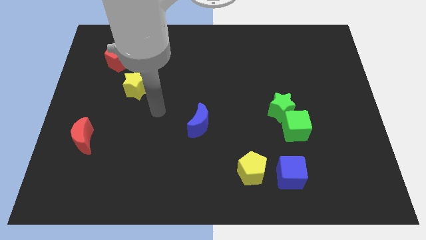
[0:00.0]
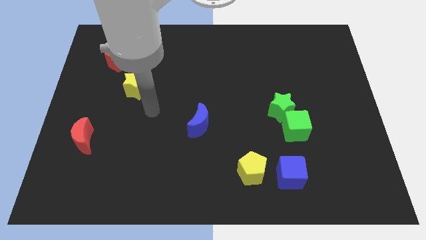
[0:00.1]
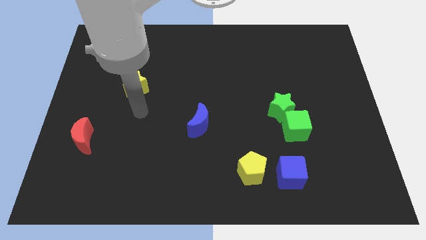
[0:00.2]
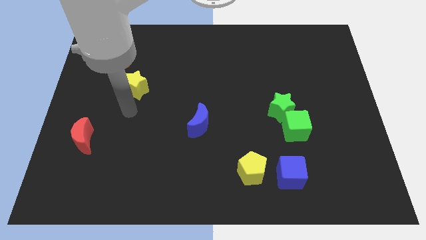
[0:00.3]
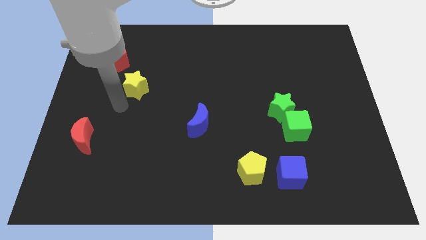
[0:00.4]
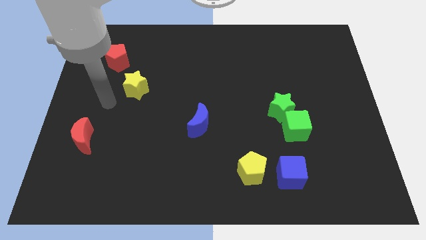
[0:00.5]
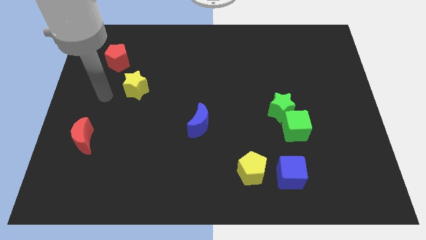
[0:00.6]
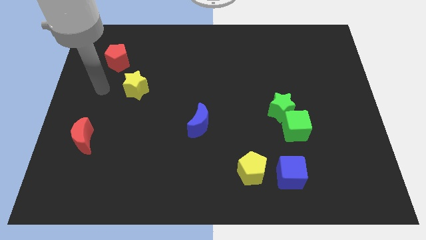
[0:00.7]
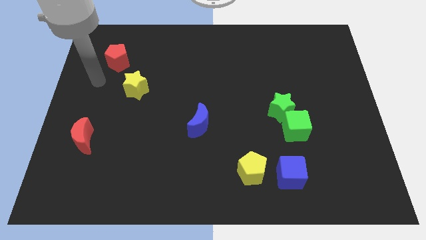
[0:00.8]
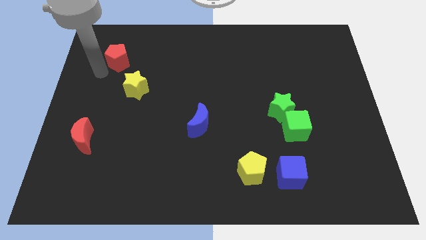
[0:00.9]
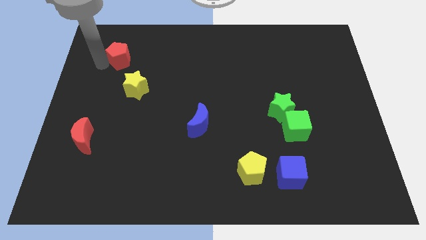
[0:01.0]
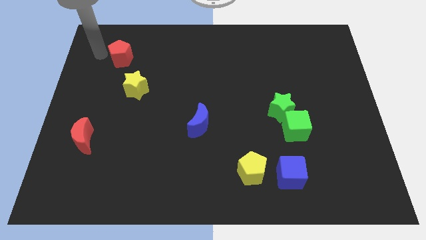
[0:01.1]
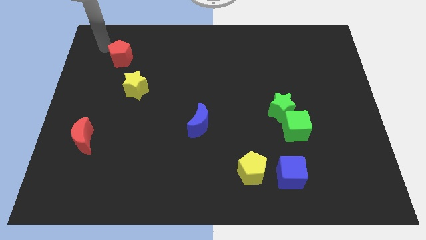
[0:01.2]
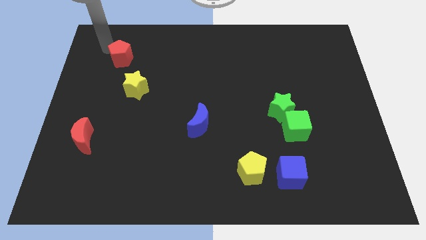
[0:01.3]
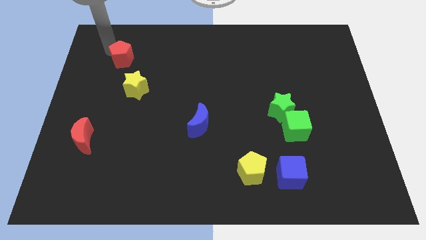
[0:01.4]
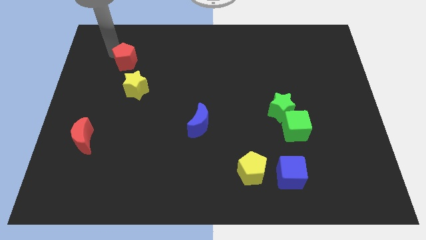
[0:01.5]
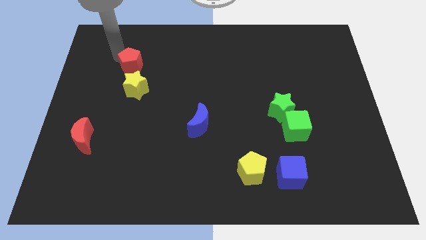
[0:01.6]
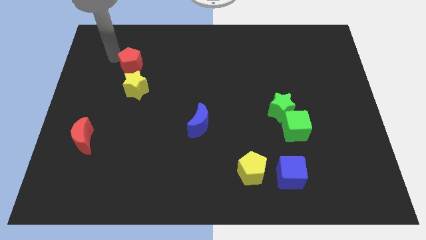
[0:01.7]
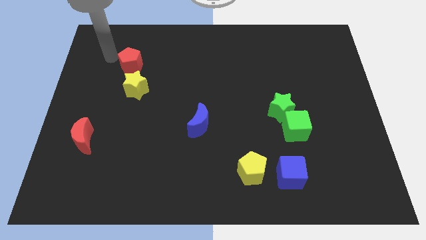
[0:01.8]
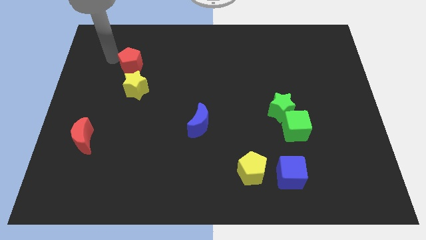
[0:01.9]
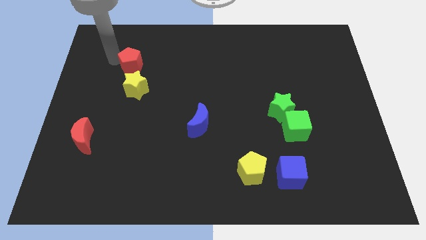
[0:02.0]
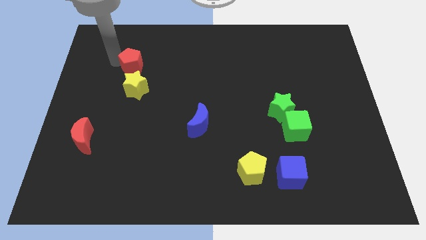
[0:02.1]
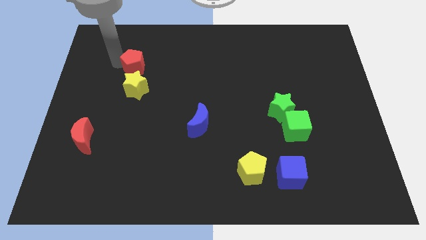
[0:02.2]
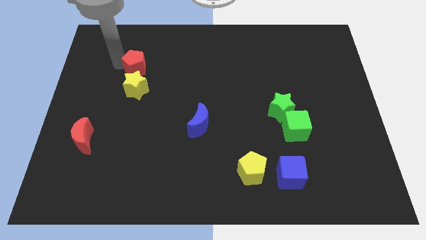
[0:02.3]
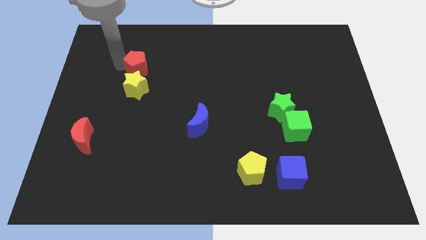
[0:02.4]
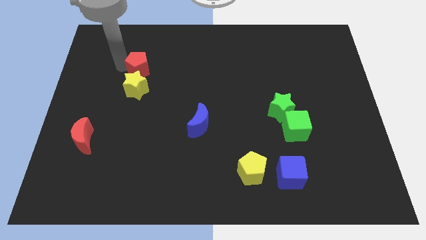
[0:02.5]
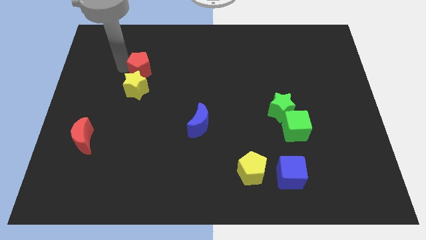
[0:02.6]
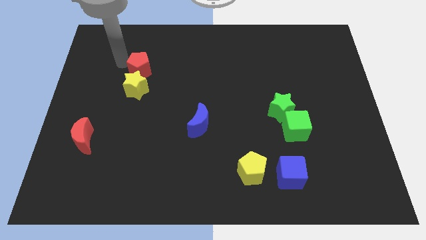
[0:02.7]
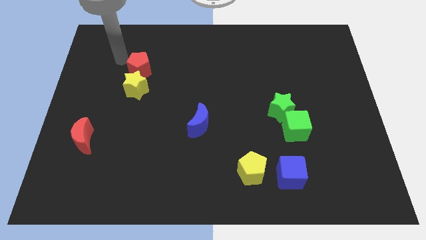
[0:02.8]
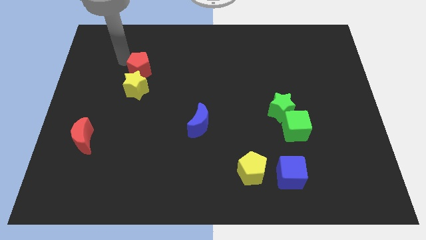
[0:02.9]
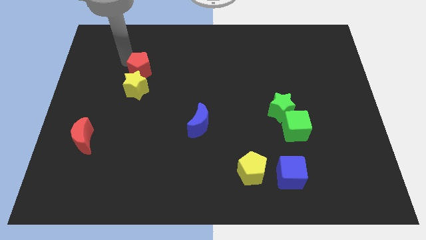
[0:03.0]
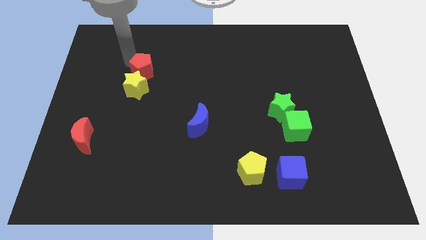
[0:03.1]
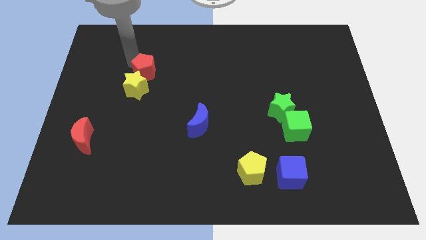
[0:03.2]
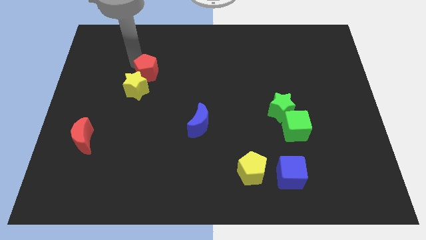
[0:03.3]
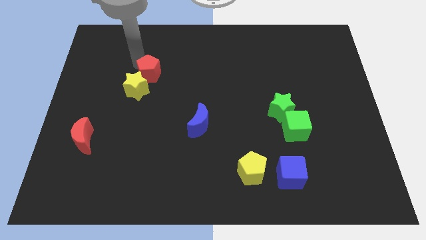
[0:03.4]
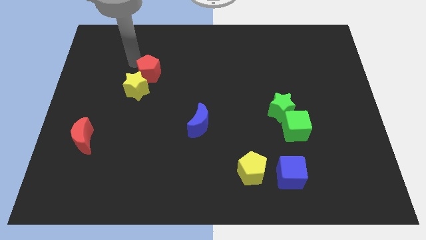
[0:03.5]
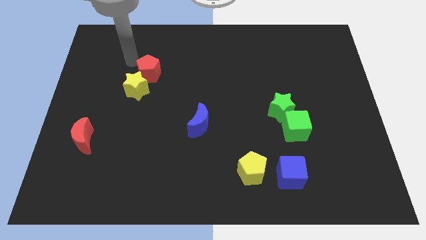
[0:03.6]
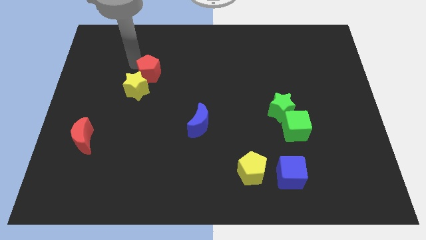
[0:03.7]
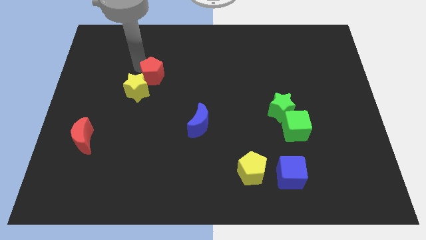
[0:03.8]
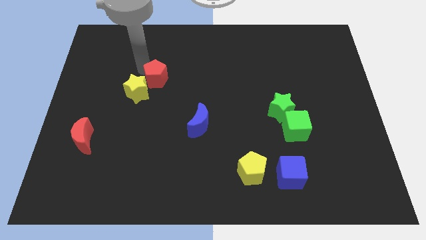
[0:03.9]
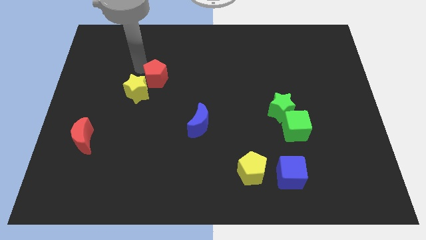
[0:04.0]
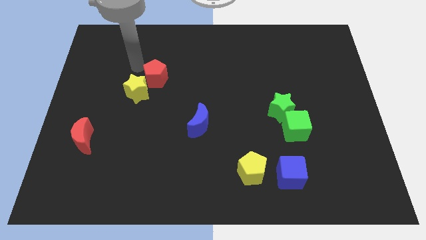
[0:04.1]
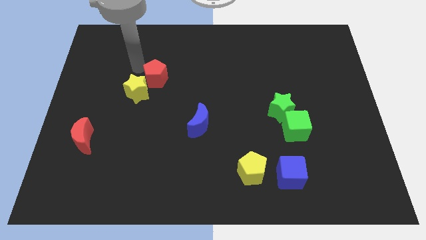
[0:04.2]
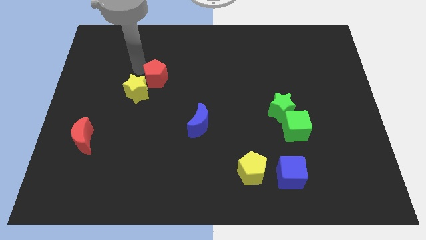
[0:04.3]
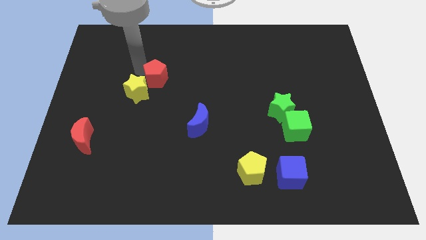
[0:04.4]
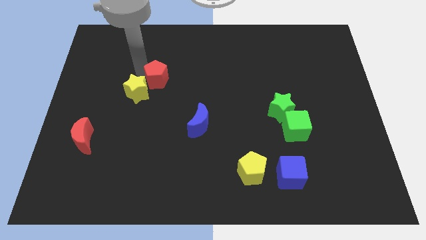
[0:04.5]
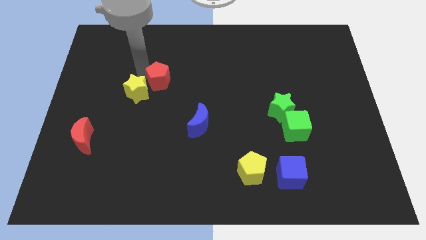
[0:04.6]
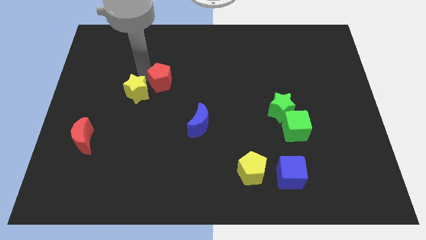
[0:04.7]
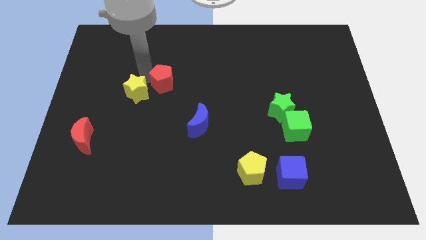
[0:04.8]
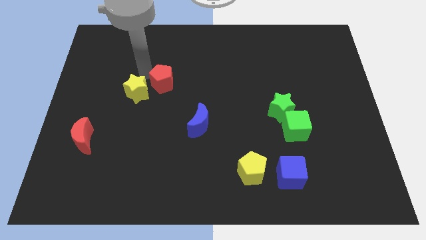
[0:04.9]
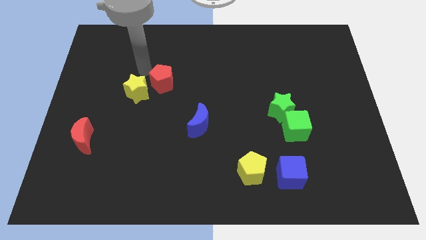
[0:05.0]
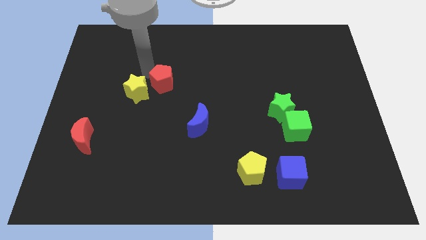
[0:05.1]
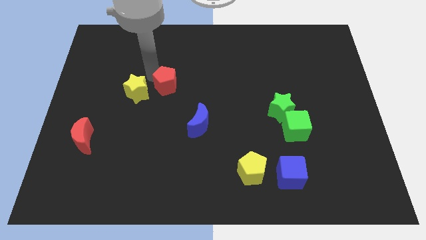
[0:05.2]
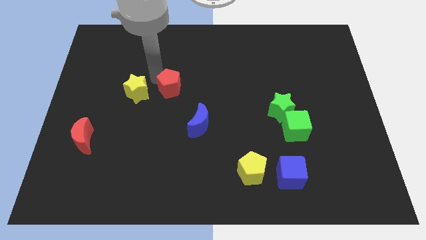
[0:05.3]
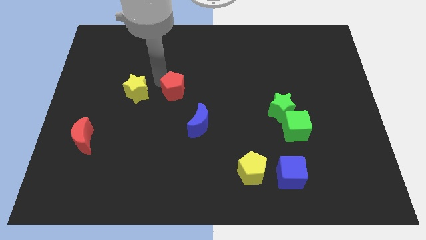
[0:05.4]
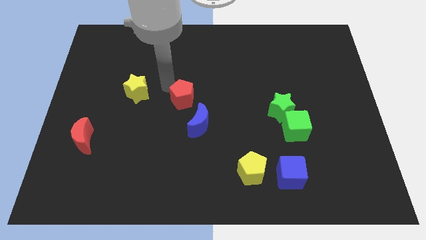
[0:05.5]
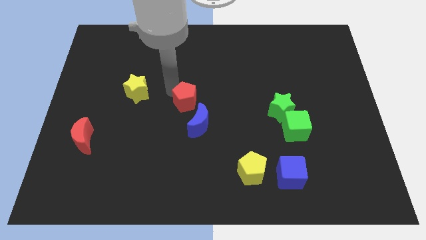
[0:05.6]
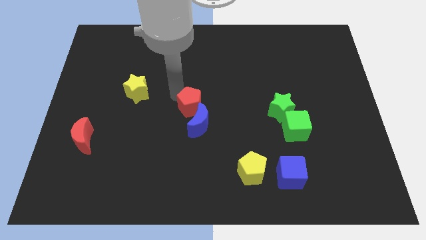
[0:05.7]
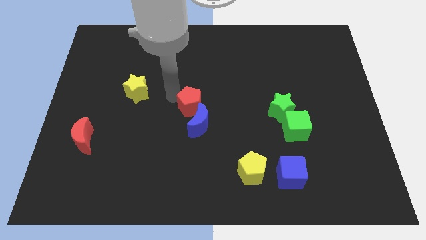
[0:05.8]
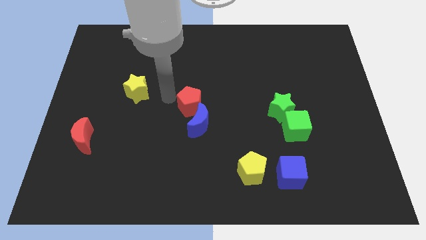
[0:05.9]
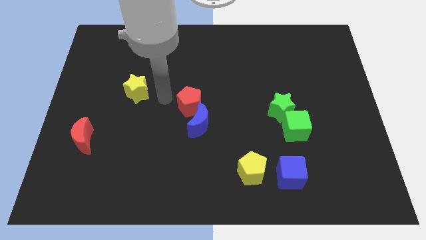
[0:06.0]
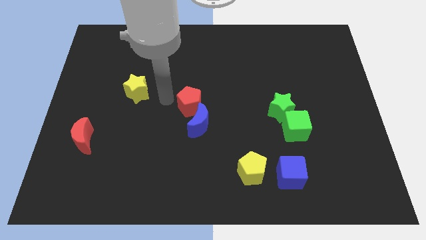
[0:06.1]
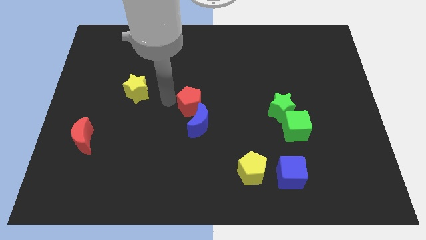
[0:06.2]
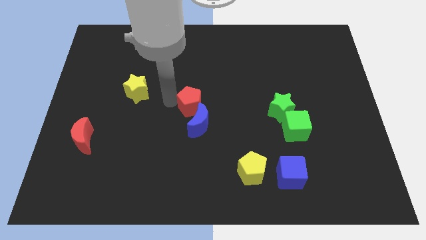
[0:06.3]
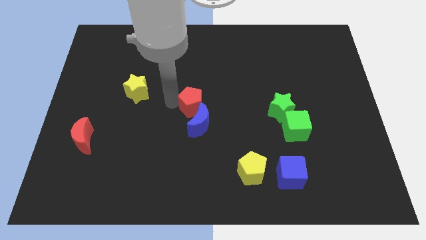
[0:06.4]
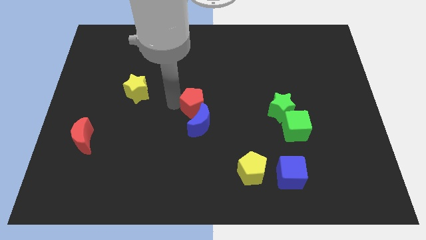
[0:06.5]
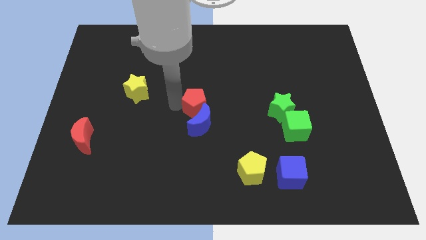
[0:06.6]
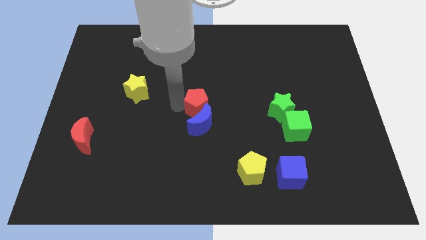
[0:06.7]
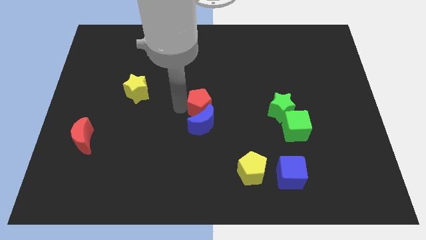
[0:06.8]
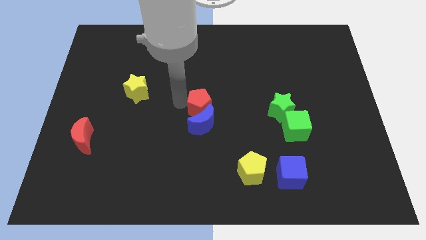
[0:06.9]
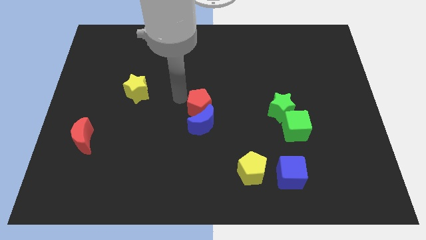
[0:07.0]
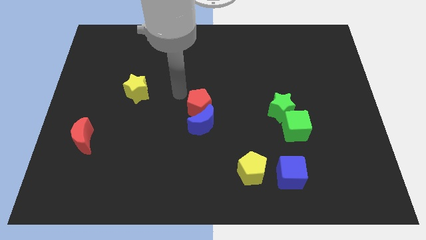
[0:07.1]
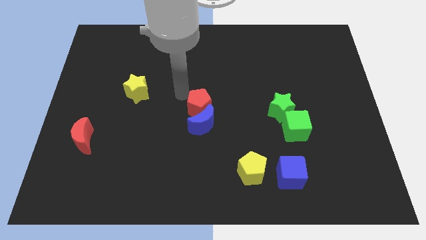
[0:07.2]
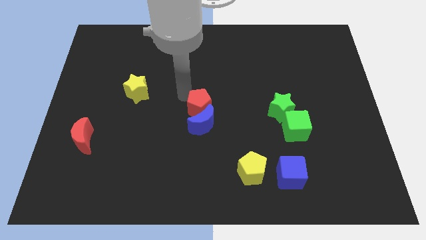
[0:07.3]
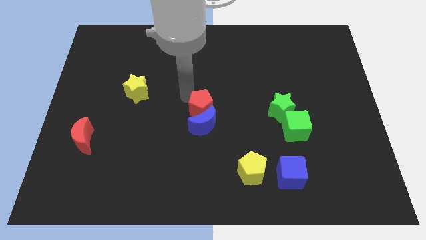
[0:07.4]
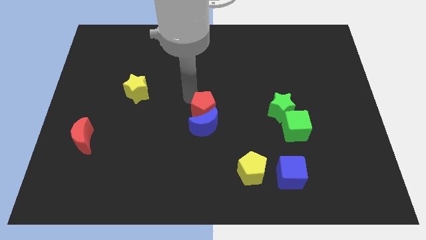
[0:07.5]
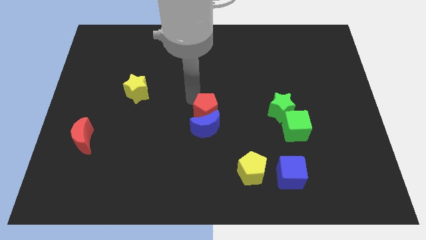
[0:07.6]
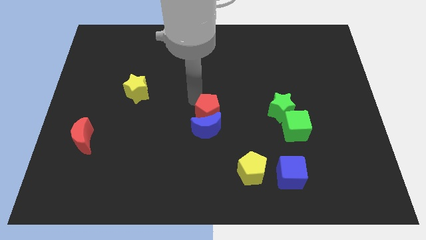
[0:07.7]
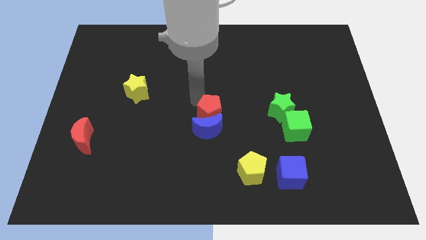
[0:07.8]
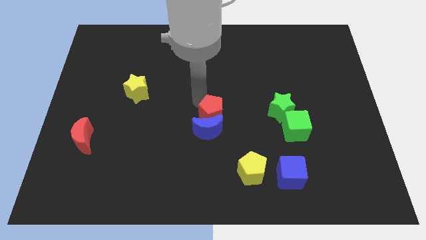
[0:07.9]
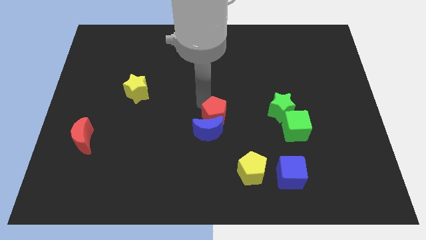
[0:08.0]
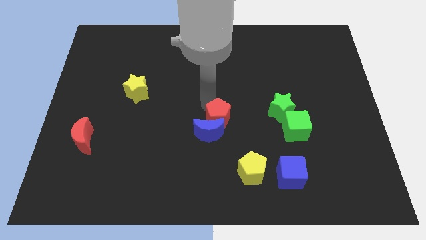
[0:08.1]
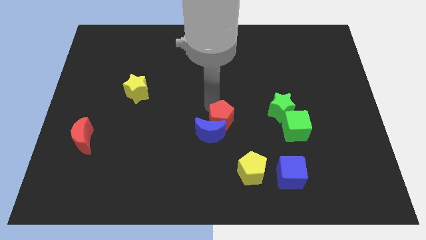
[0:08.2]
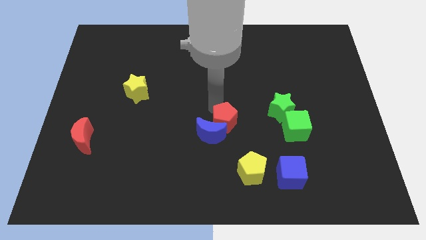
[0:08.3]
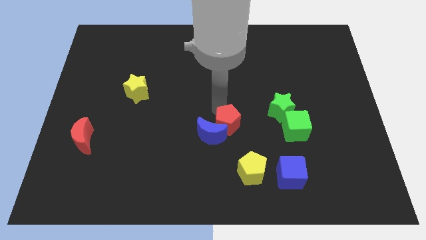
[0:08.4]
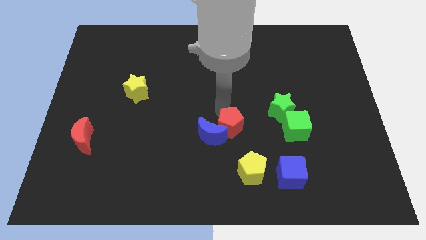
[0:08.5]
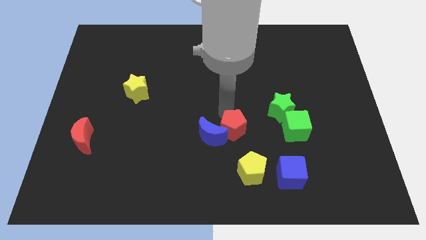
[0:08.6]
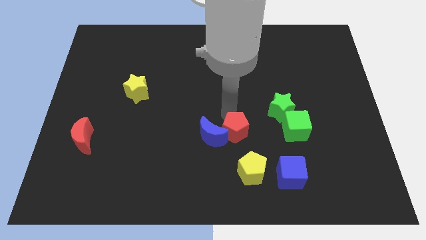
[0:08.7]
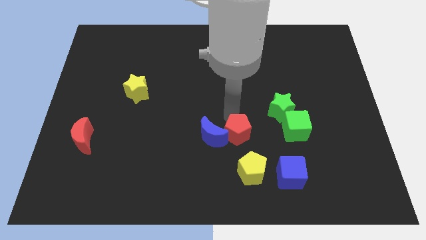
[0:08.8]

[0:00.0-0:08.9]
push the red pentagon diagonally down and to the right of the blue moon
